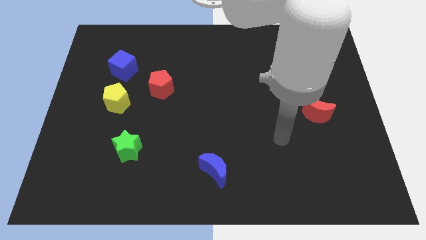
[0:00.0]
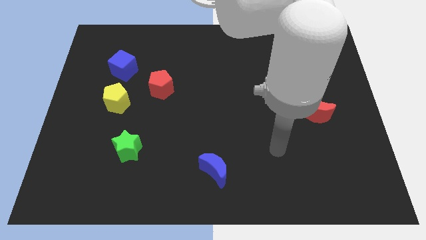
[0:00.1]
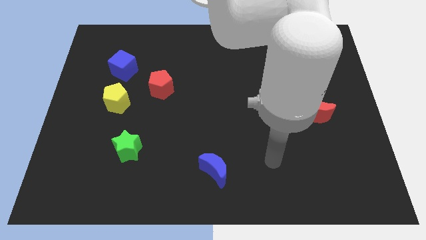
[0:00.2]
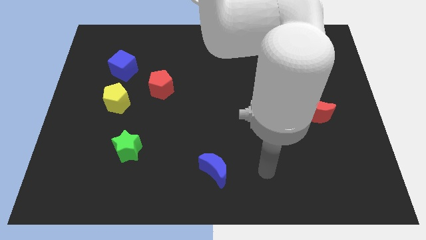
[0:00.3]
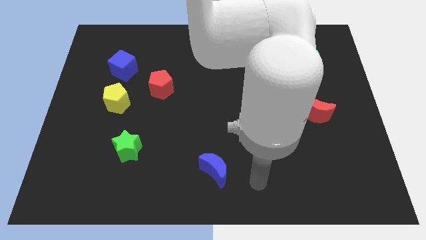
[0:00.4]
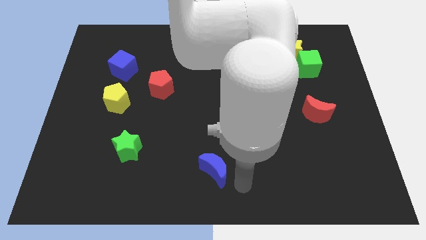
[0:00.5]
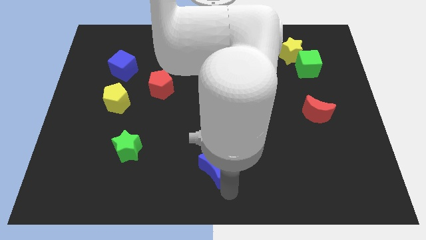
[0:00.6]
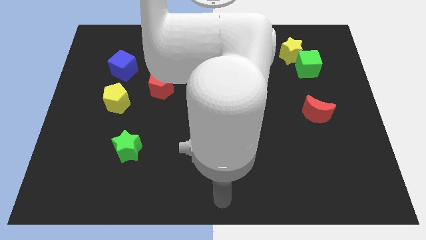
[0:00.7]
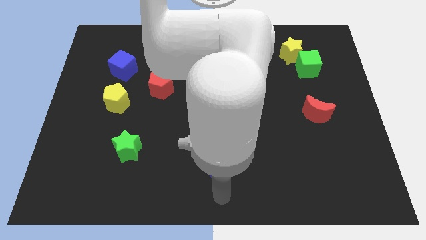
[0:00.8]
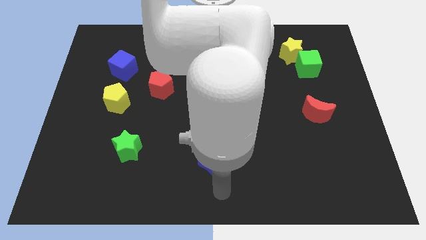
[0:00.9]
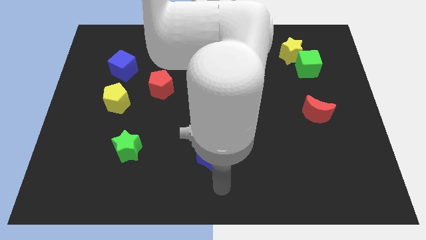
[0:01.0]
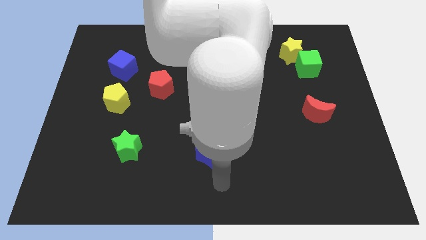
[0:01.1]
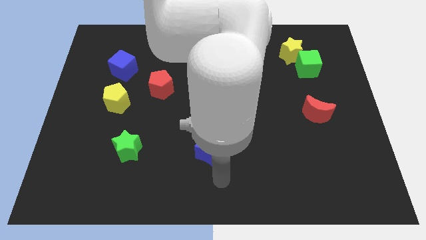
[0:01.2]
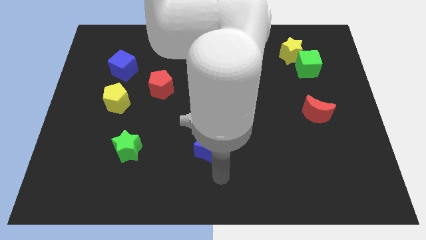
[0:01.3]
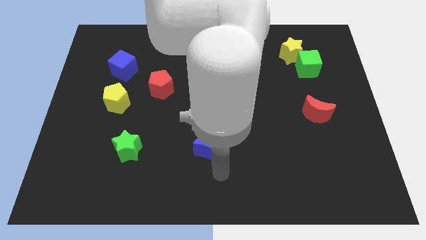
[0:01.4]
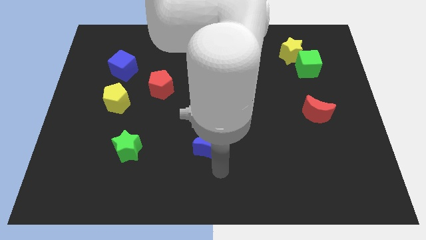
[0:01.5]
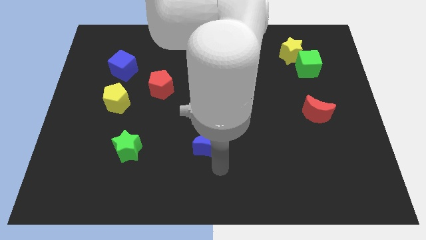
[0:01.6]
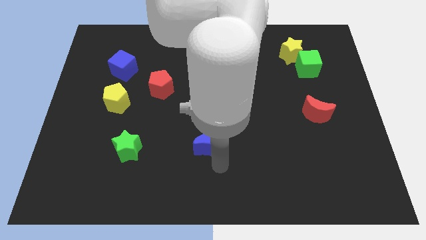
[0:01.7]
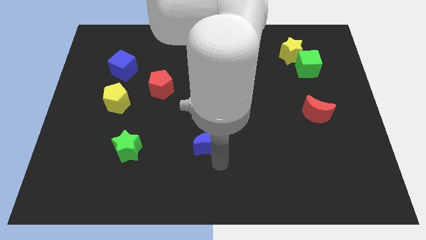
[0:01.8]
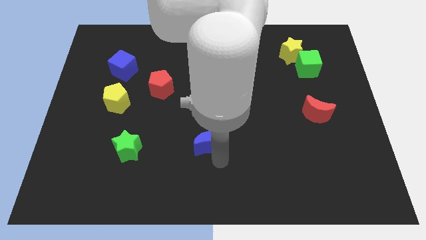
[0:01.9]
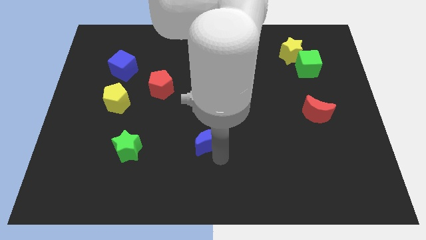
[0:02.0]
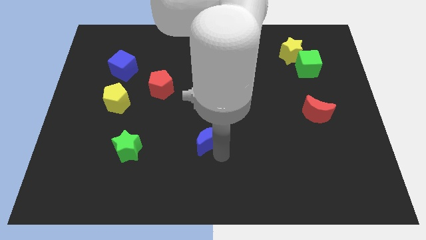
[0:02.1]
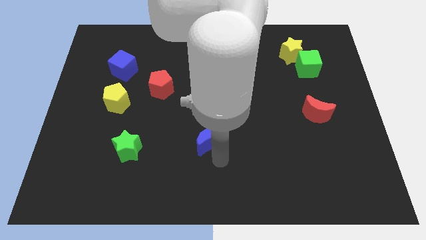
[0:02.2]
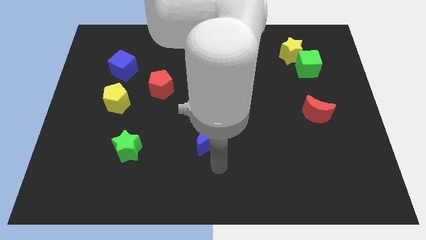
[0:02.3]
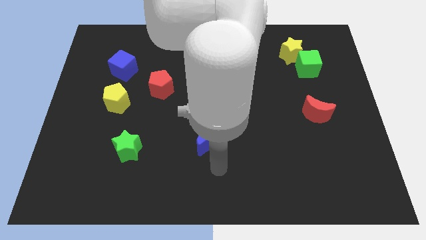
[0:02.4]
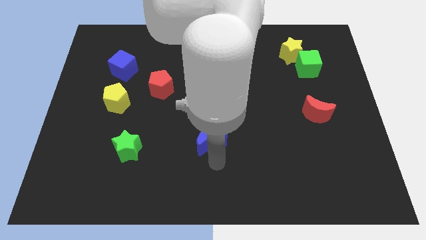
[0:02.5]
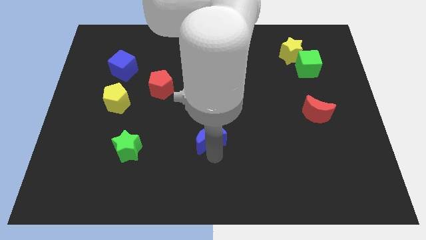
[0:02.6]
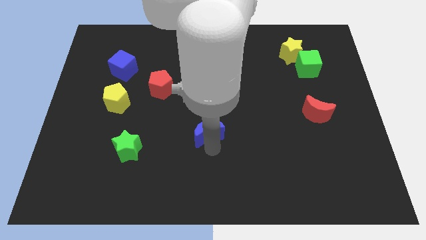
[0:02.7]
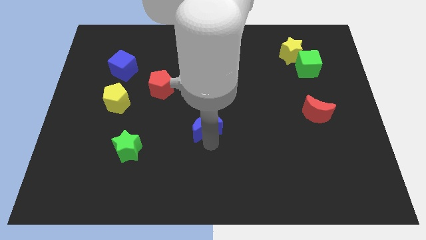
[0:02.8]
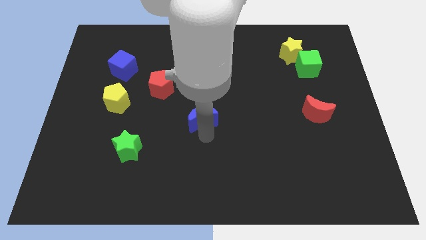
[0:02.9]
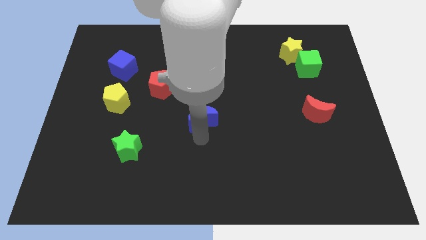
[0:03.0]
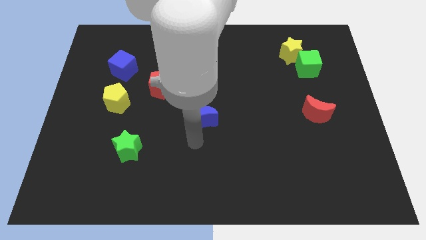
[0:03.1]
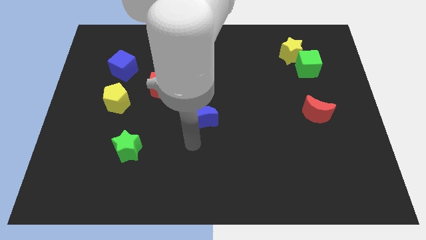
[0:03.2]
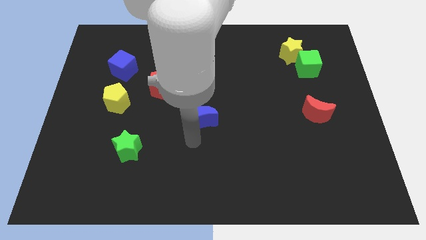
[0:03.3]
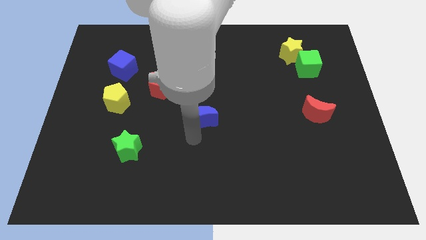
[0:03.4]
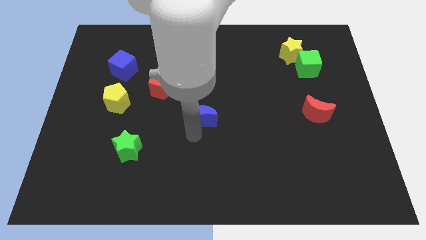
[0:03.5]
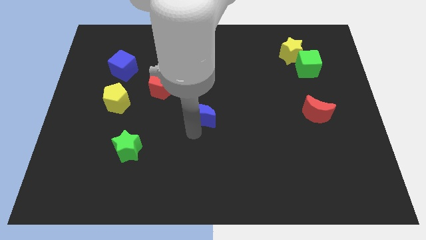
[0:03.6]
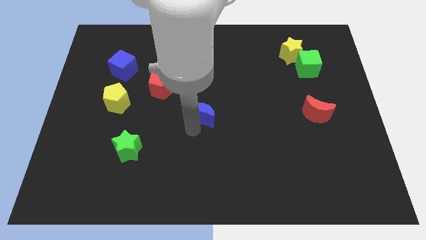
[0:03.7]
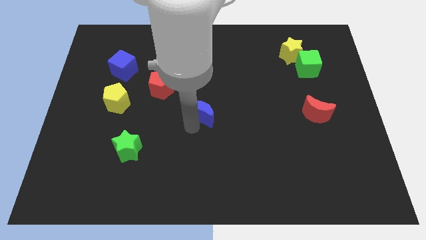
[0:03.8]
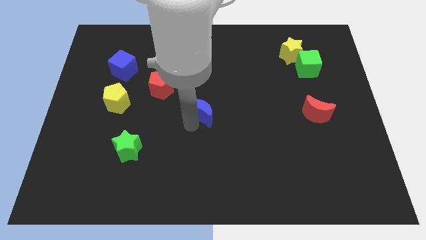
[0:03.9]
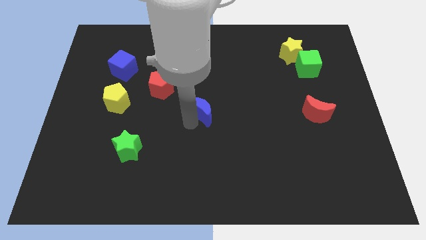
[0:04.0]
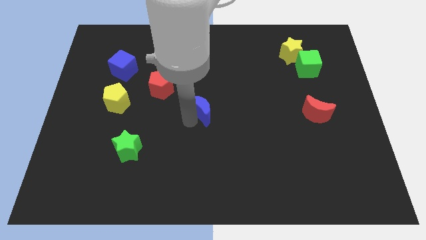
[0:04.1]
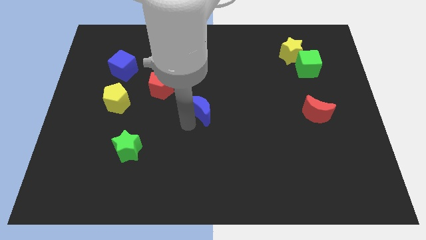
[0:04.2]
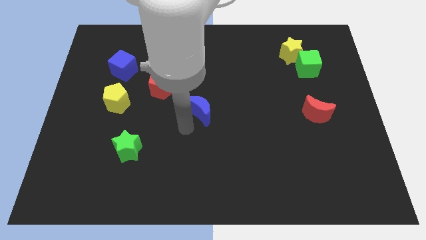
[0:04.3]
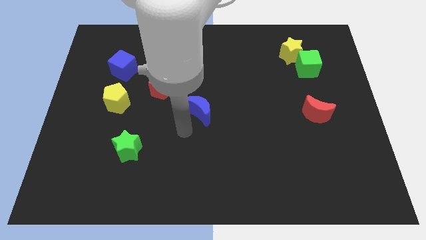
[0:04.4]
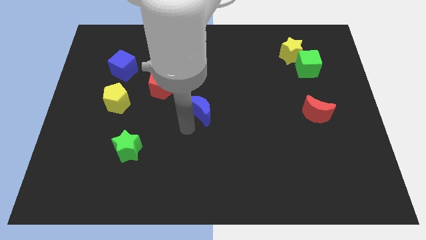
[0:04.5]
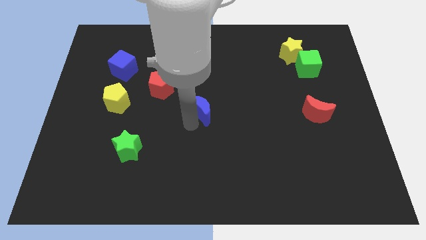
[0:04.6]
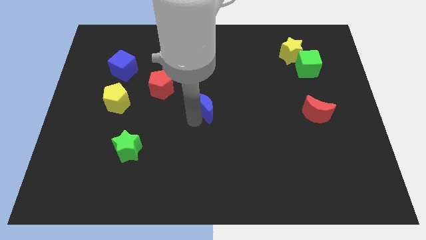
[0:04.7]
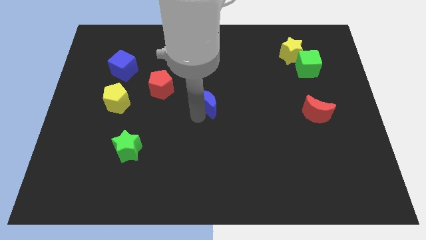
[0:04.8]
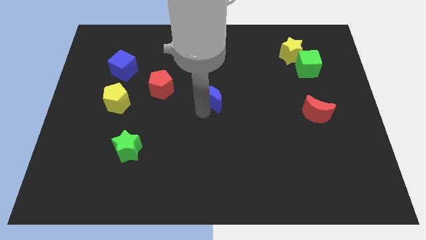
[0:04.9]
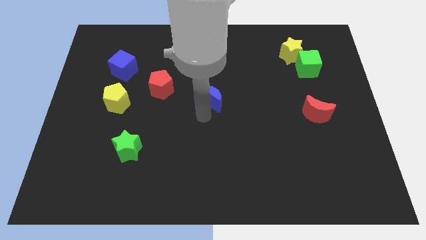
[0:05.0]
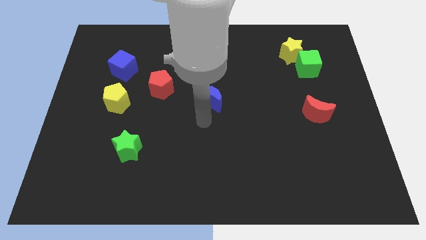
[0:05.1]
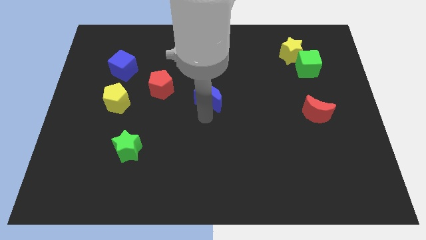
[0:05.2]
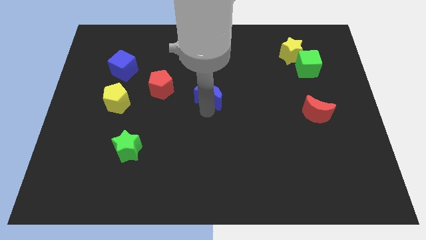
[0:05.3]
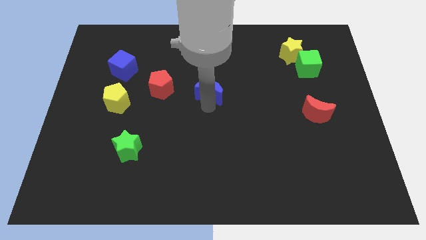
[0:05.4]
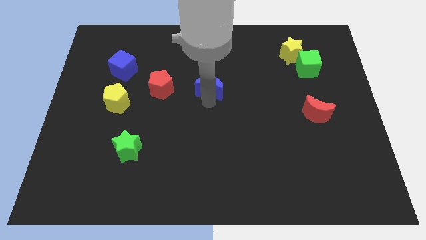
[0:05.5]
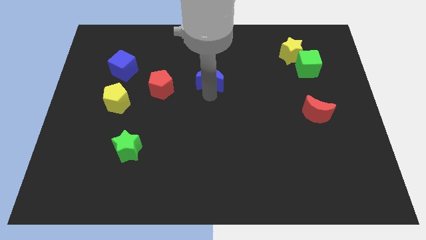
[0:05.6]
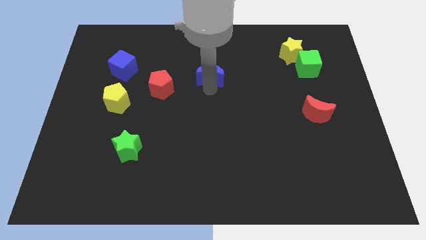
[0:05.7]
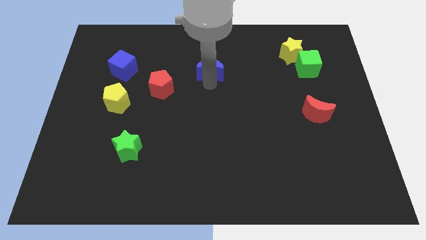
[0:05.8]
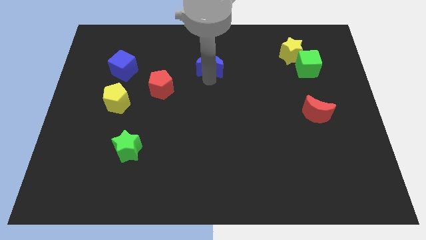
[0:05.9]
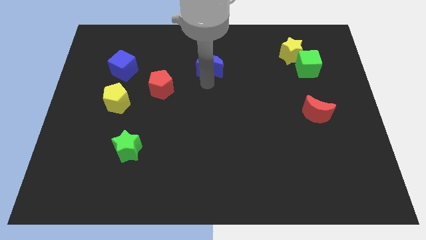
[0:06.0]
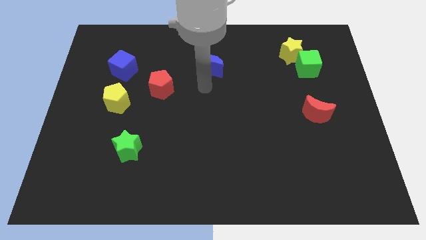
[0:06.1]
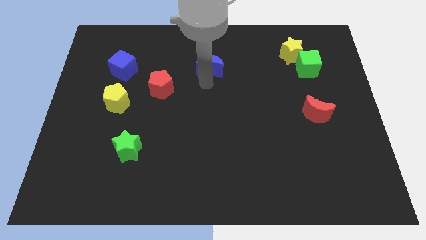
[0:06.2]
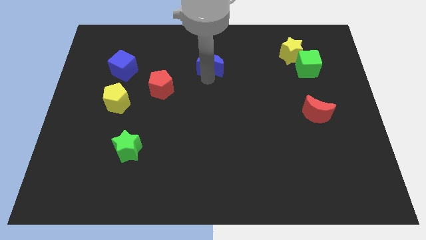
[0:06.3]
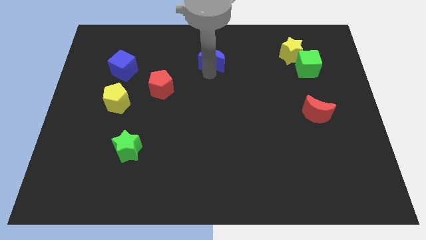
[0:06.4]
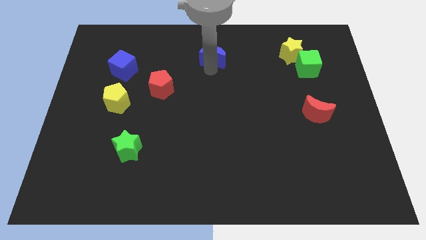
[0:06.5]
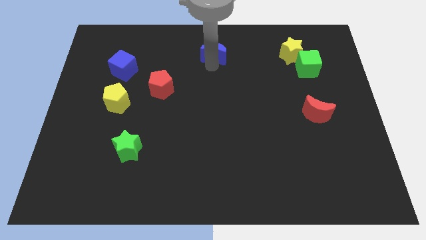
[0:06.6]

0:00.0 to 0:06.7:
slide the blue moon to the top side
